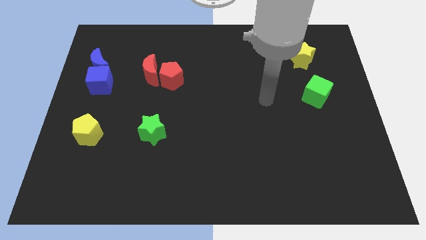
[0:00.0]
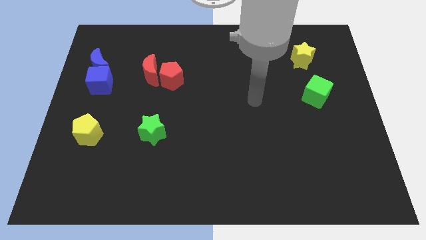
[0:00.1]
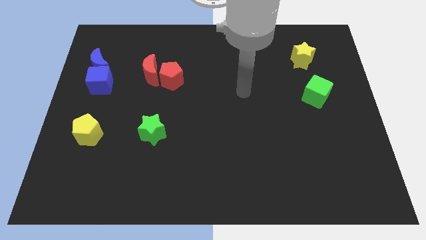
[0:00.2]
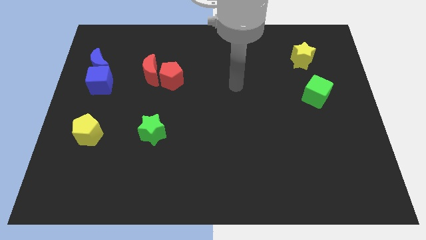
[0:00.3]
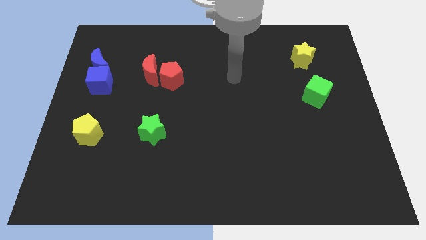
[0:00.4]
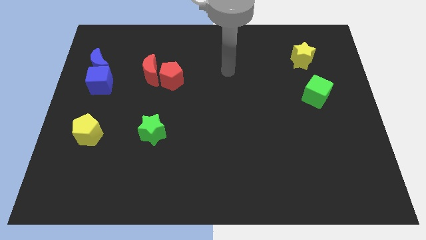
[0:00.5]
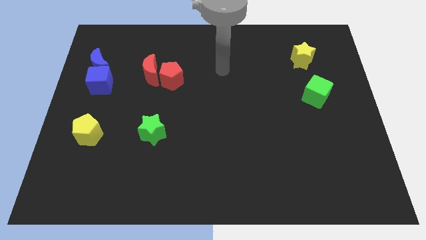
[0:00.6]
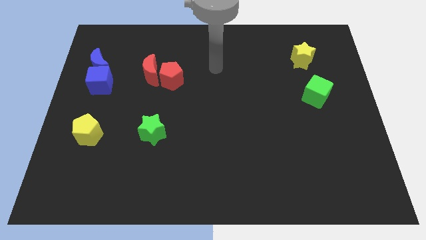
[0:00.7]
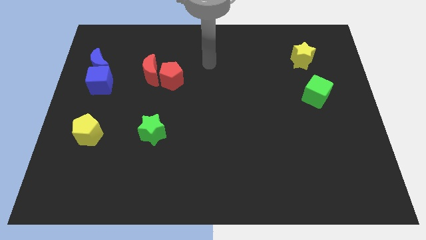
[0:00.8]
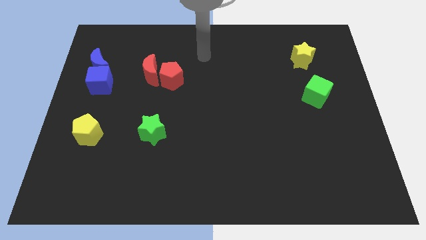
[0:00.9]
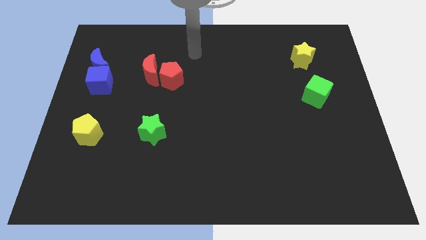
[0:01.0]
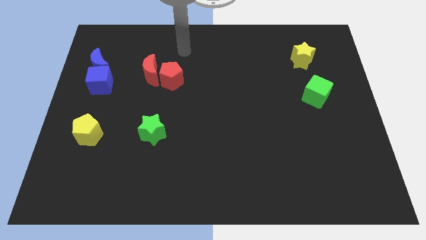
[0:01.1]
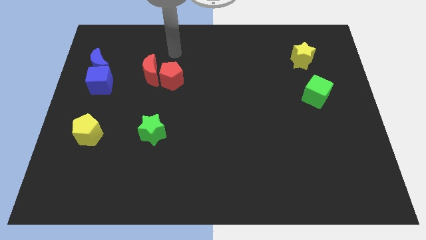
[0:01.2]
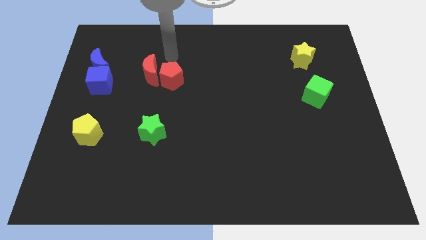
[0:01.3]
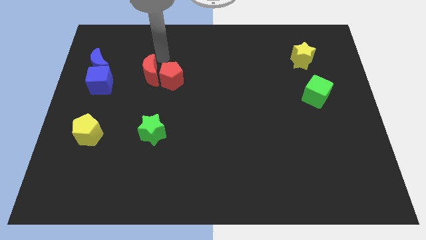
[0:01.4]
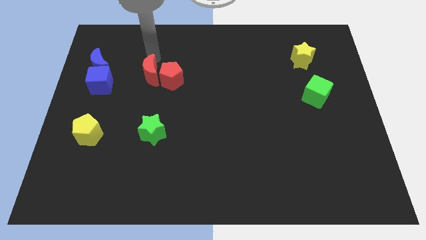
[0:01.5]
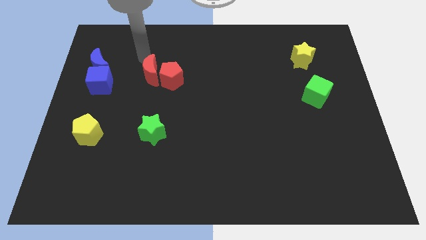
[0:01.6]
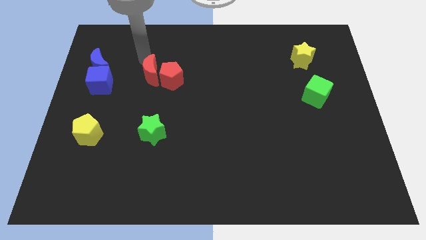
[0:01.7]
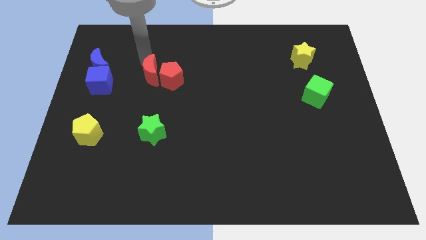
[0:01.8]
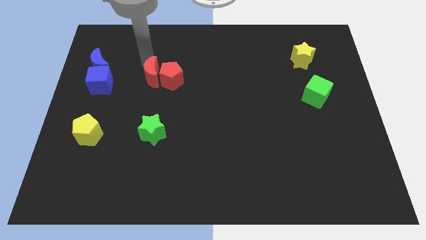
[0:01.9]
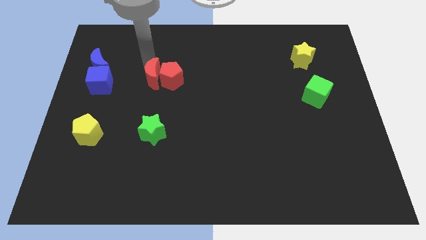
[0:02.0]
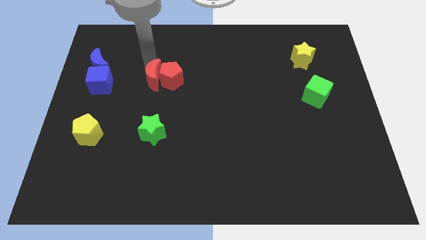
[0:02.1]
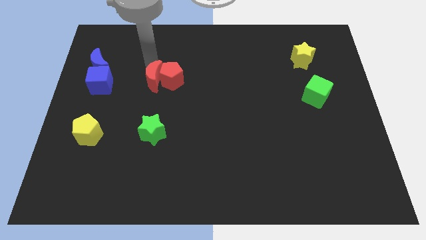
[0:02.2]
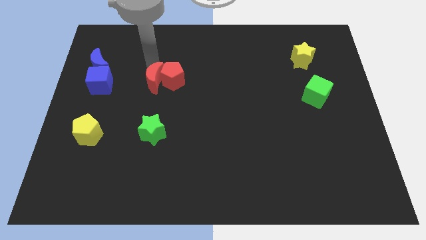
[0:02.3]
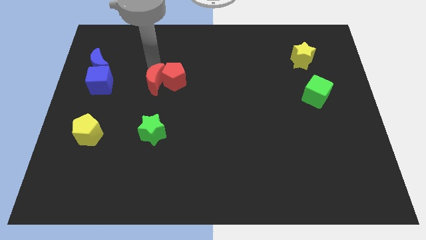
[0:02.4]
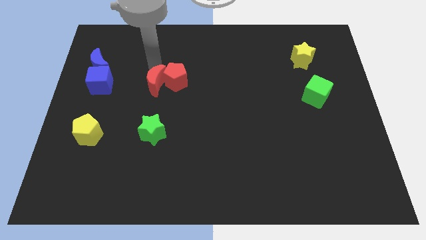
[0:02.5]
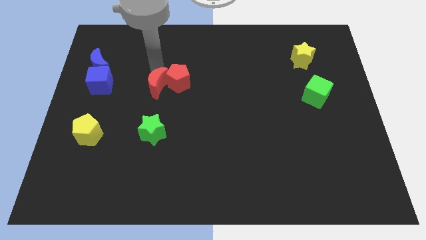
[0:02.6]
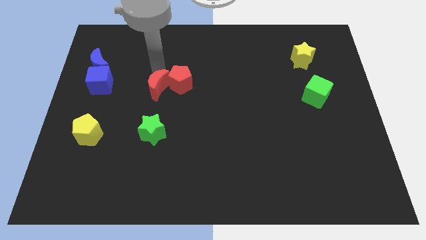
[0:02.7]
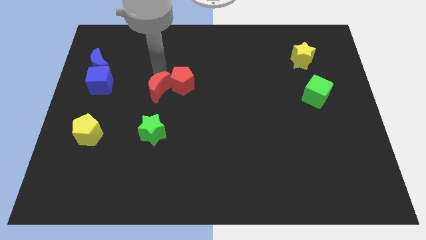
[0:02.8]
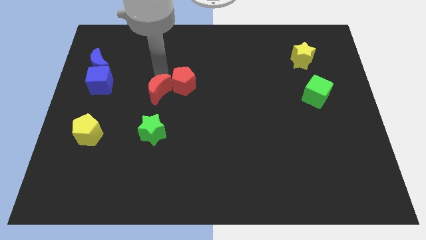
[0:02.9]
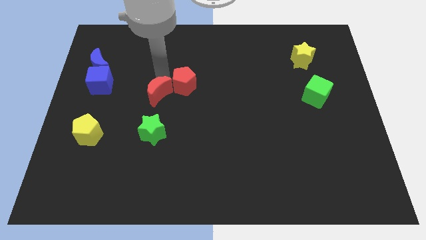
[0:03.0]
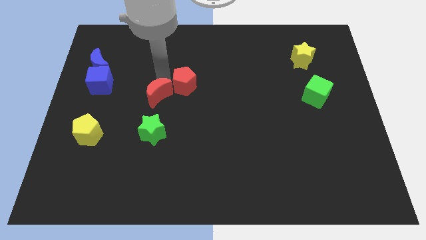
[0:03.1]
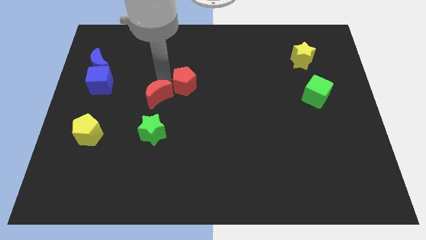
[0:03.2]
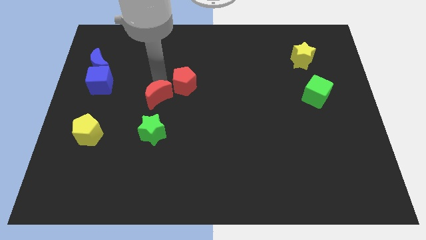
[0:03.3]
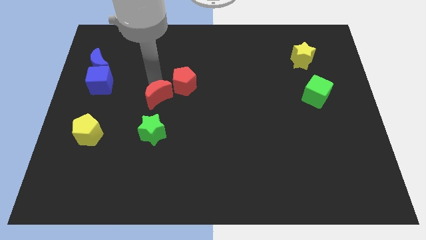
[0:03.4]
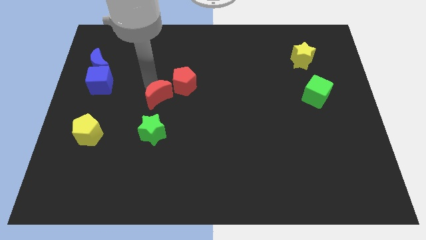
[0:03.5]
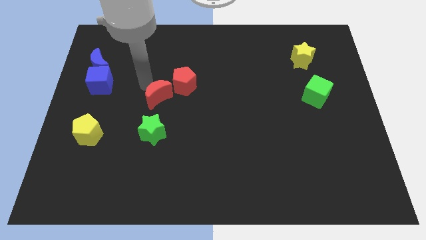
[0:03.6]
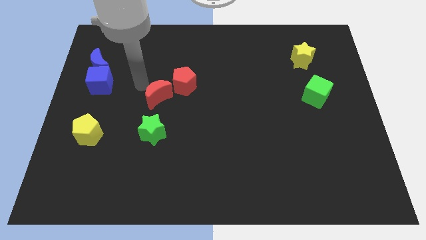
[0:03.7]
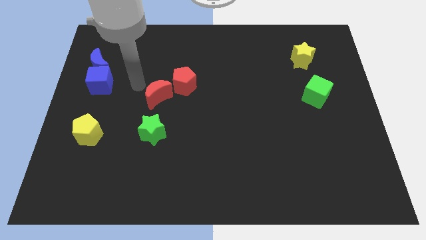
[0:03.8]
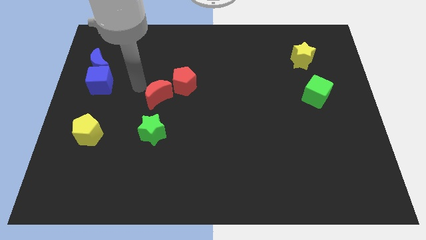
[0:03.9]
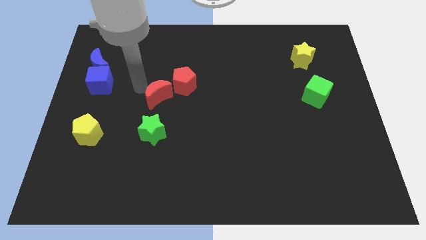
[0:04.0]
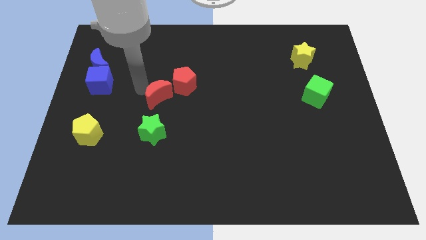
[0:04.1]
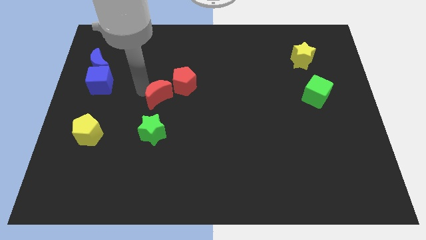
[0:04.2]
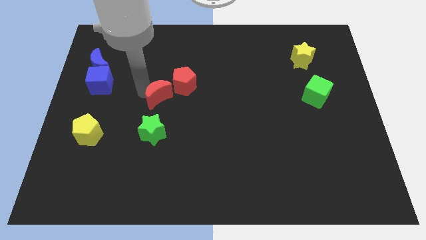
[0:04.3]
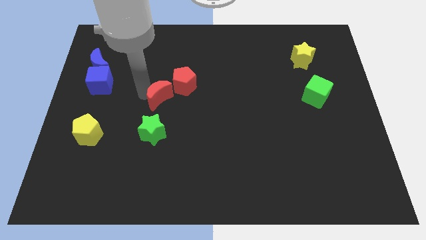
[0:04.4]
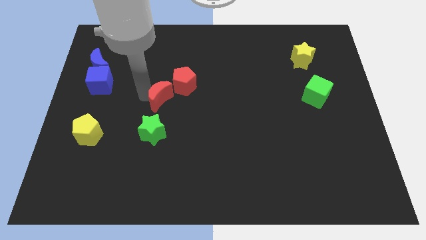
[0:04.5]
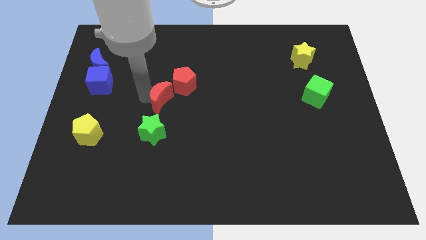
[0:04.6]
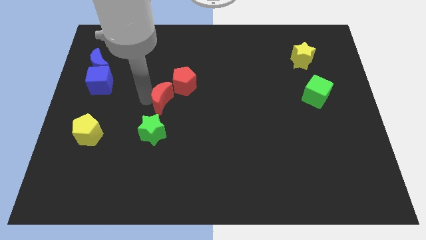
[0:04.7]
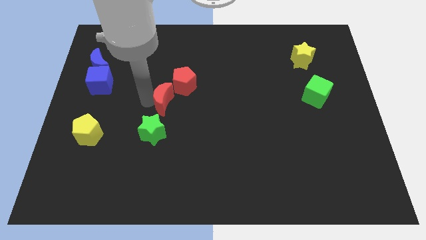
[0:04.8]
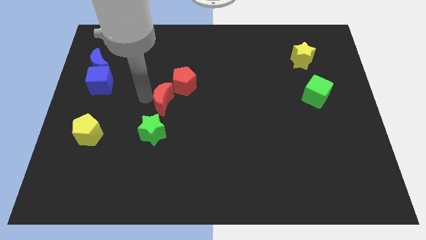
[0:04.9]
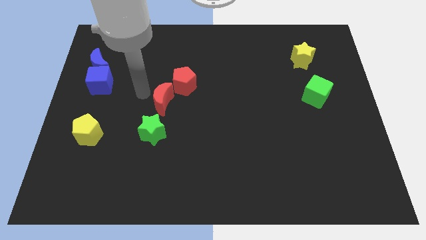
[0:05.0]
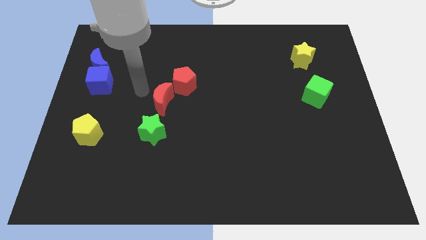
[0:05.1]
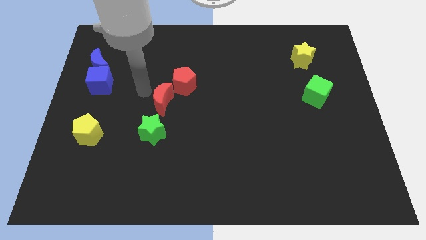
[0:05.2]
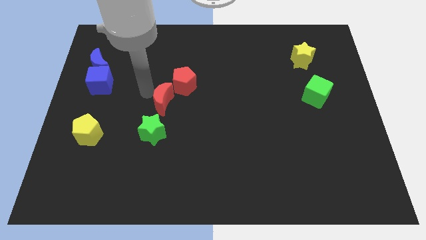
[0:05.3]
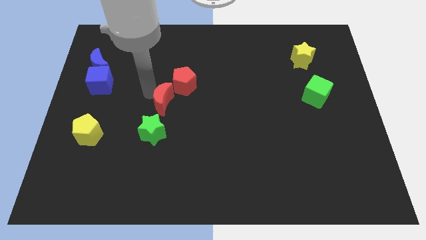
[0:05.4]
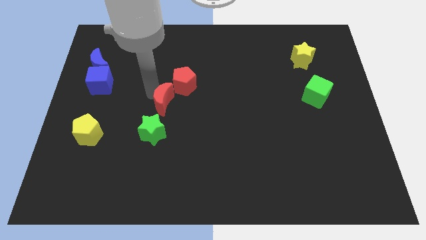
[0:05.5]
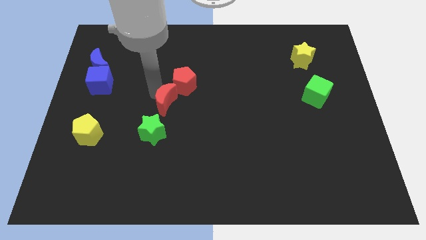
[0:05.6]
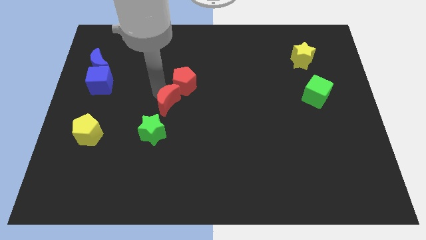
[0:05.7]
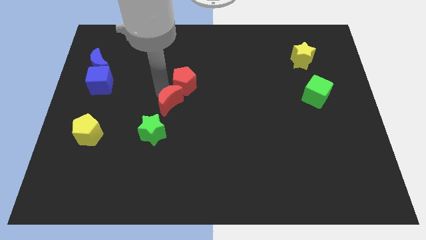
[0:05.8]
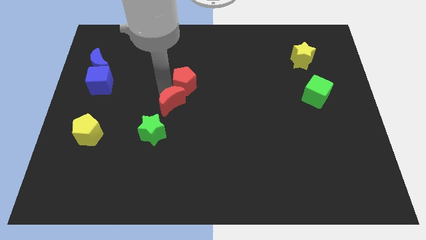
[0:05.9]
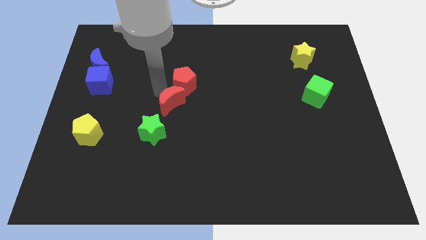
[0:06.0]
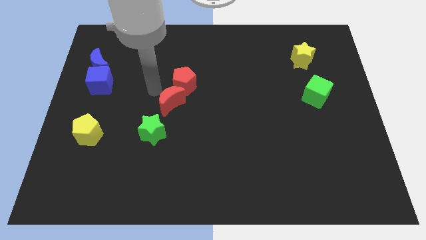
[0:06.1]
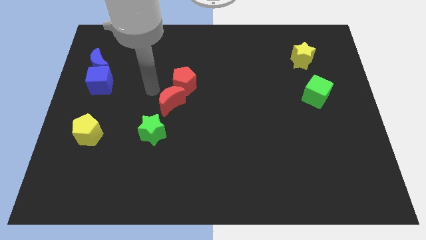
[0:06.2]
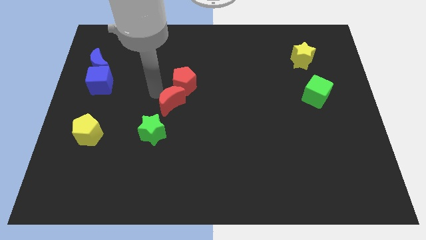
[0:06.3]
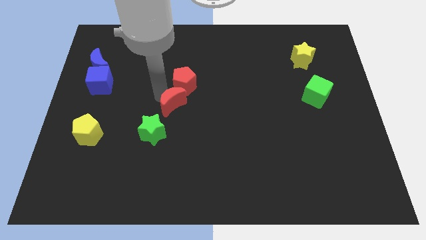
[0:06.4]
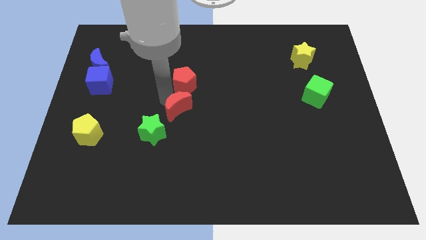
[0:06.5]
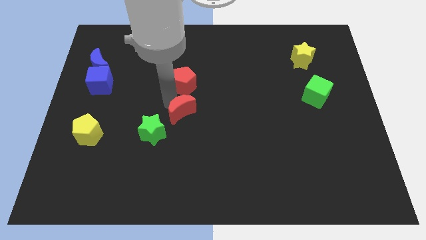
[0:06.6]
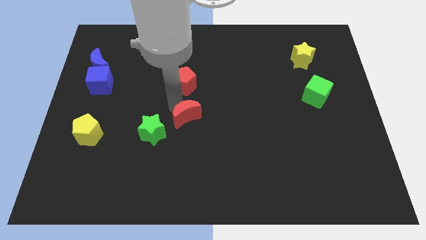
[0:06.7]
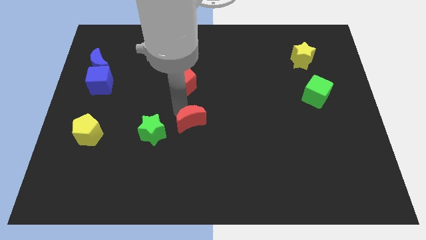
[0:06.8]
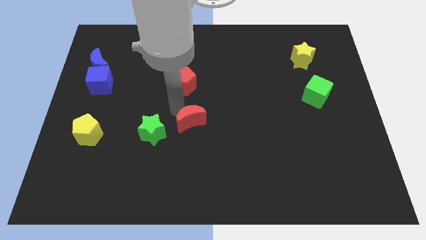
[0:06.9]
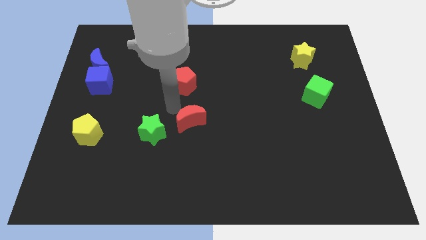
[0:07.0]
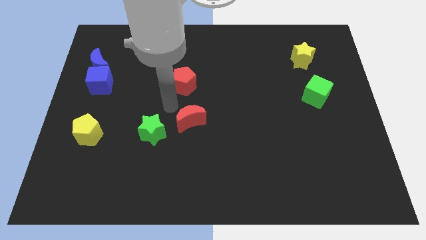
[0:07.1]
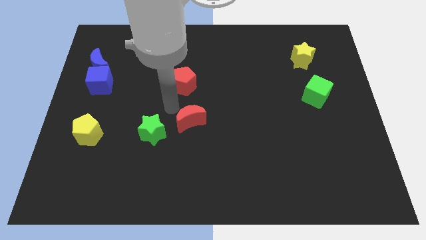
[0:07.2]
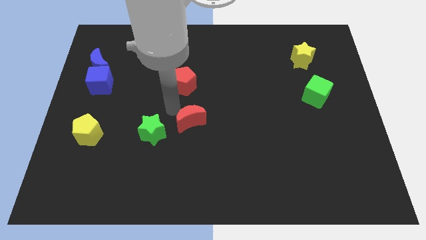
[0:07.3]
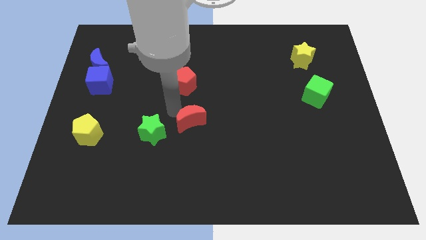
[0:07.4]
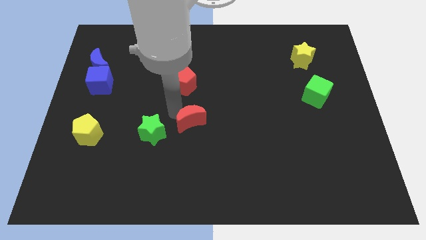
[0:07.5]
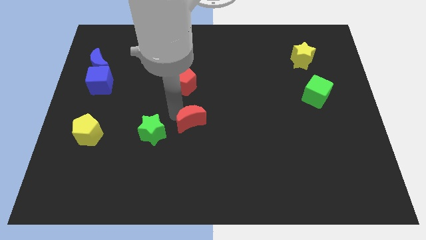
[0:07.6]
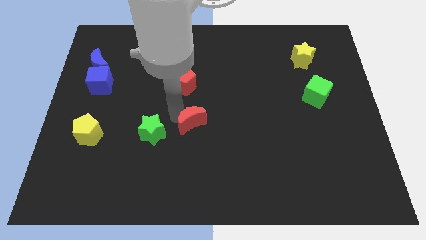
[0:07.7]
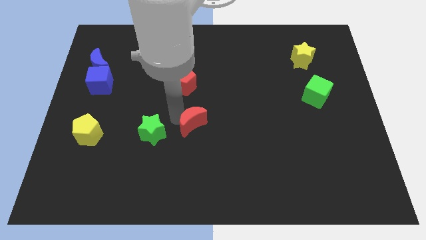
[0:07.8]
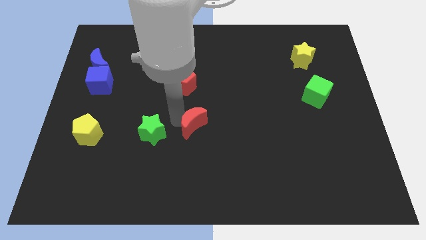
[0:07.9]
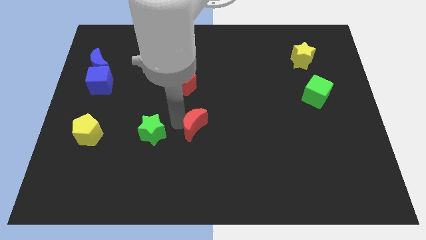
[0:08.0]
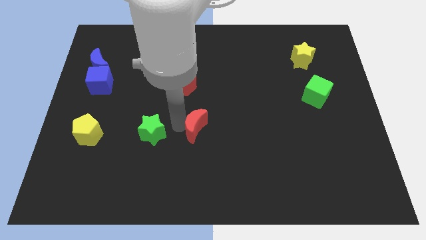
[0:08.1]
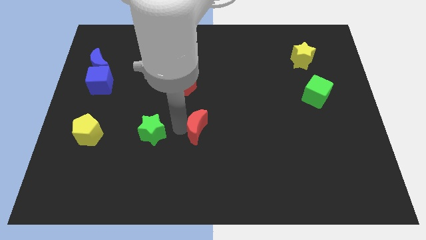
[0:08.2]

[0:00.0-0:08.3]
push the red moon downwards and then to the right

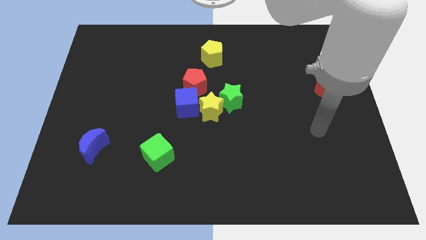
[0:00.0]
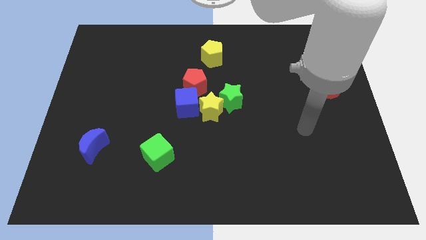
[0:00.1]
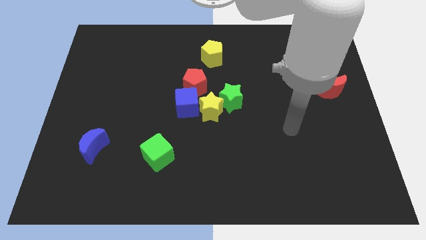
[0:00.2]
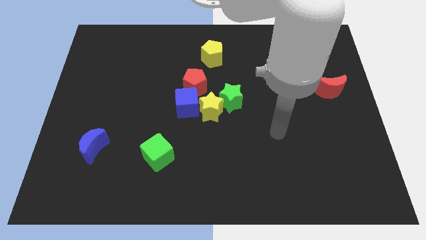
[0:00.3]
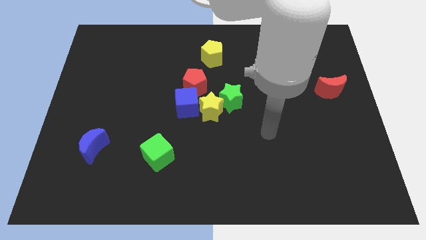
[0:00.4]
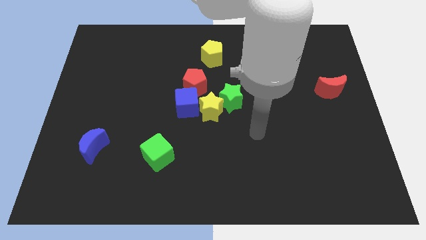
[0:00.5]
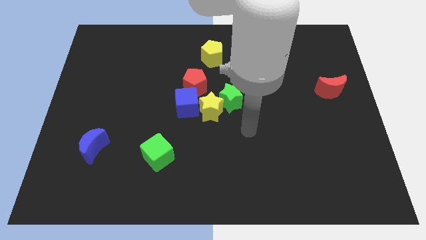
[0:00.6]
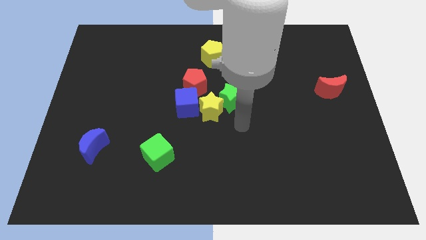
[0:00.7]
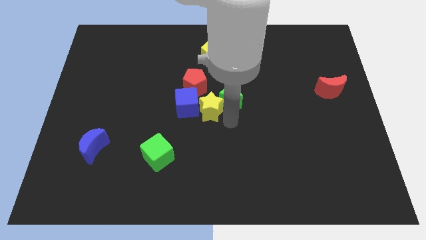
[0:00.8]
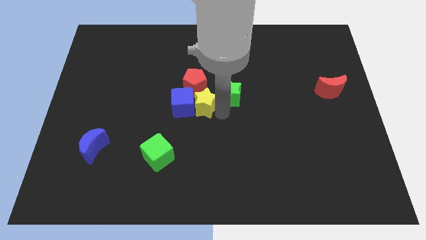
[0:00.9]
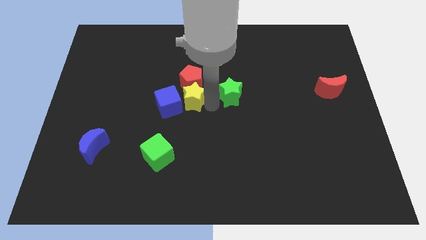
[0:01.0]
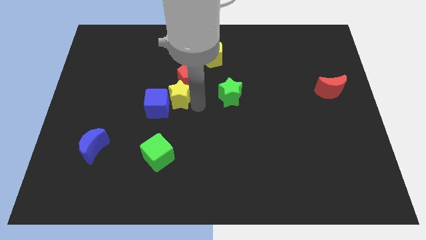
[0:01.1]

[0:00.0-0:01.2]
slightly slide the blue cube left
